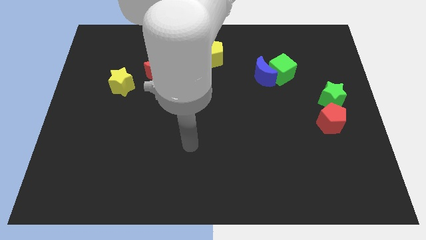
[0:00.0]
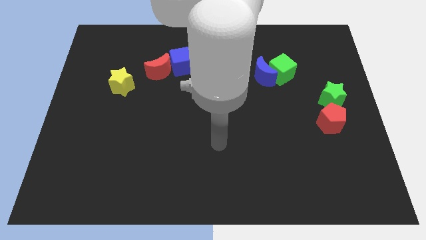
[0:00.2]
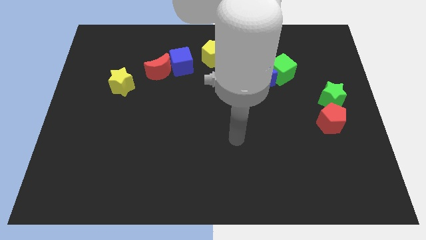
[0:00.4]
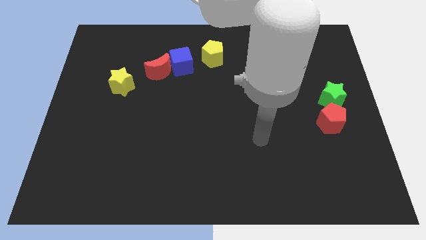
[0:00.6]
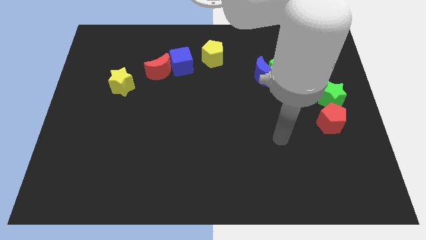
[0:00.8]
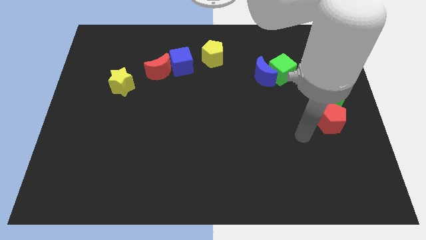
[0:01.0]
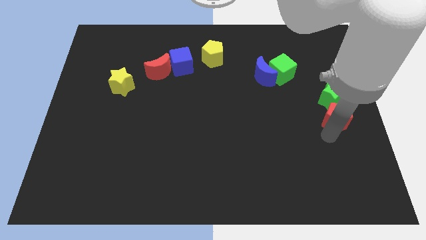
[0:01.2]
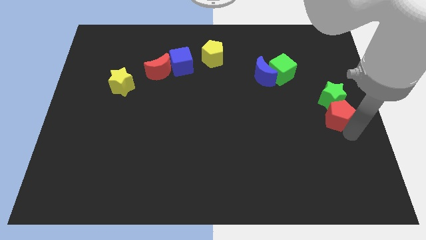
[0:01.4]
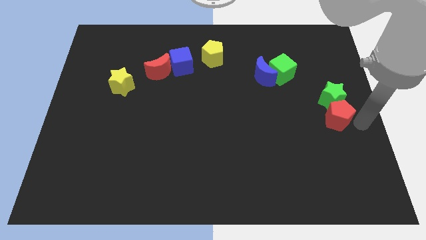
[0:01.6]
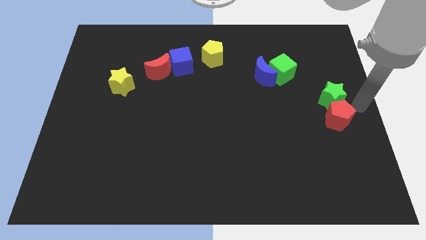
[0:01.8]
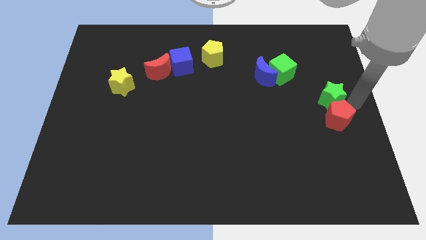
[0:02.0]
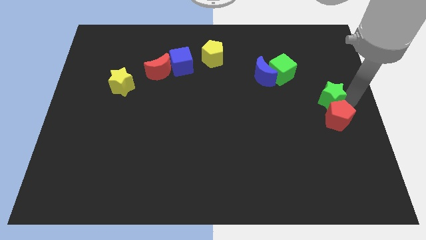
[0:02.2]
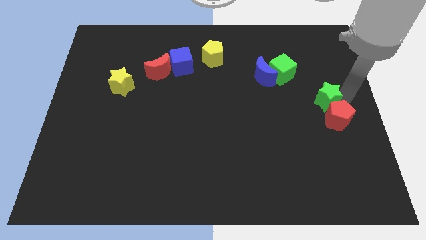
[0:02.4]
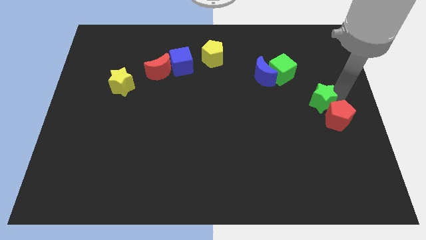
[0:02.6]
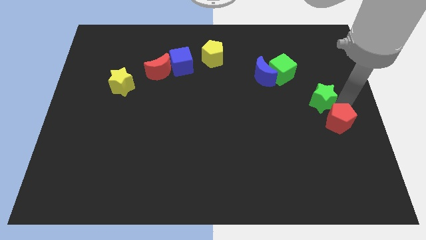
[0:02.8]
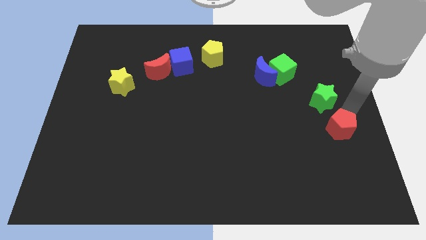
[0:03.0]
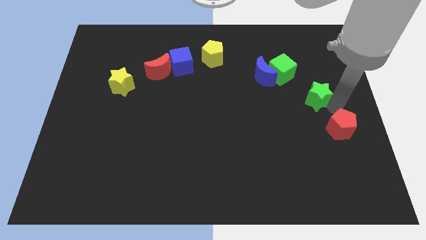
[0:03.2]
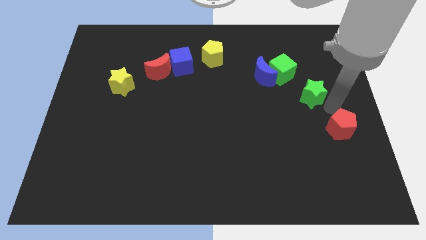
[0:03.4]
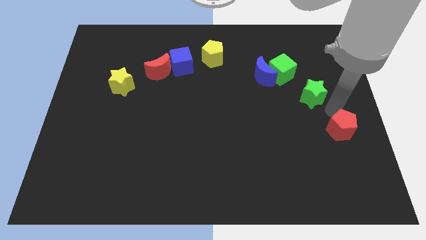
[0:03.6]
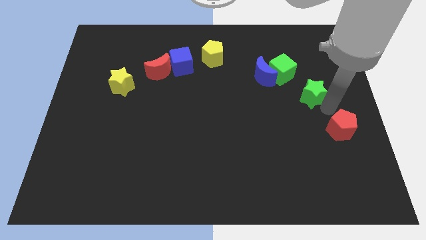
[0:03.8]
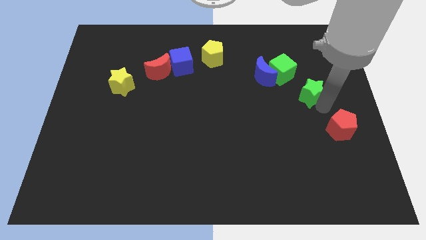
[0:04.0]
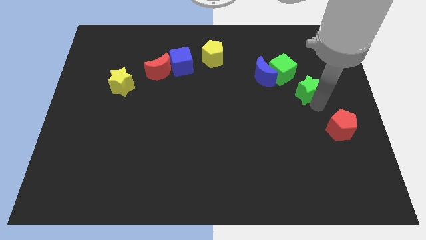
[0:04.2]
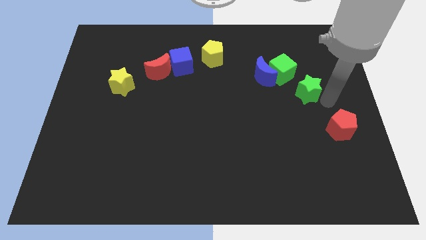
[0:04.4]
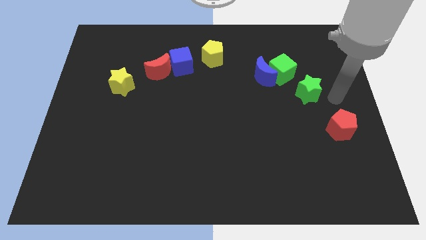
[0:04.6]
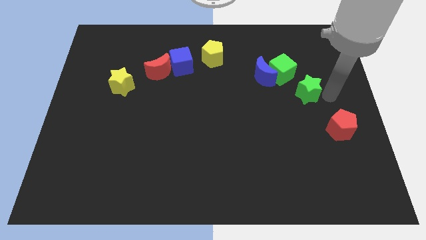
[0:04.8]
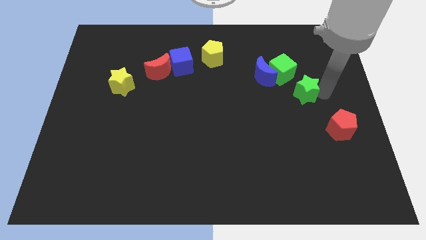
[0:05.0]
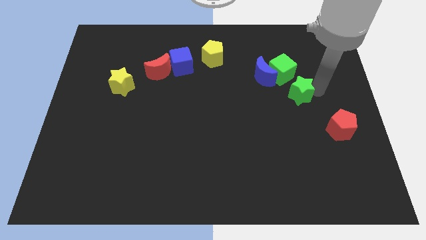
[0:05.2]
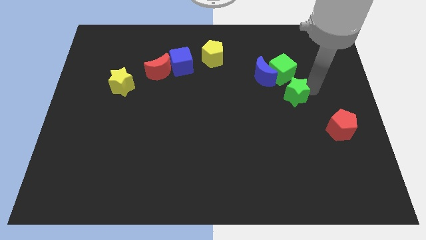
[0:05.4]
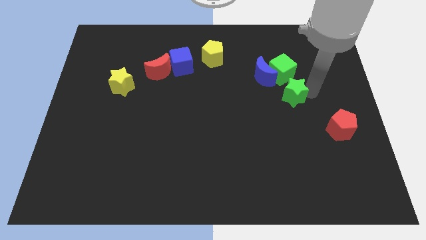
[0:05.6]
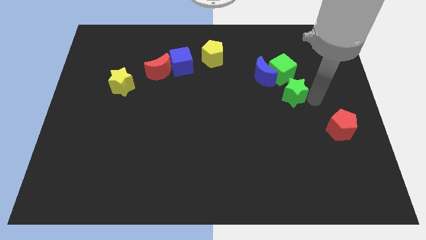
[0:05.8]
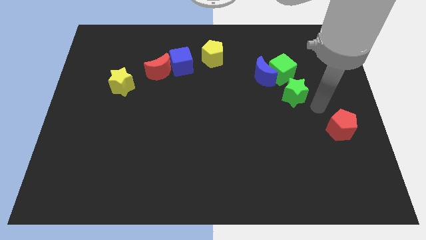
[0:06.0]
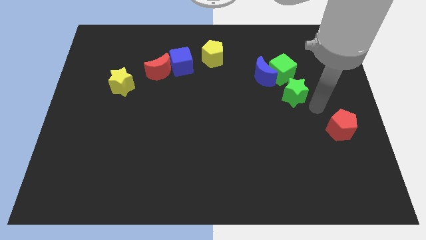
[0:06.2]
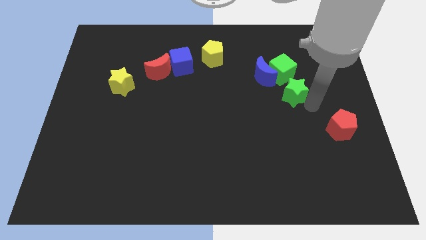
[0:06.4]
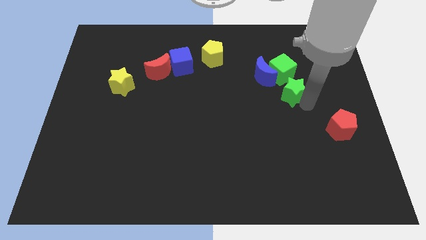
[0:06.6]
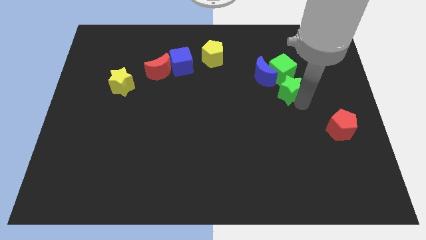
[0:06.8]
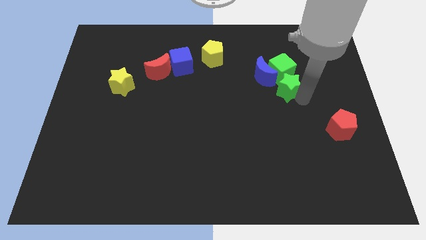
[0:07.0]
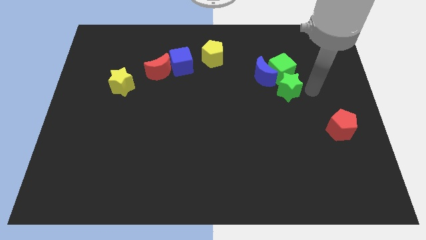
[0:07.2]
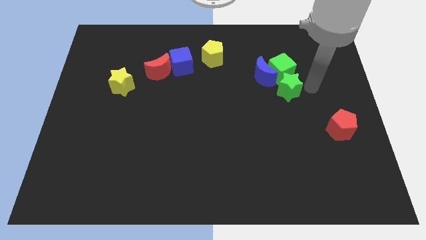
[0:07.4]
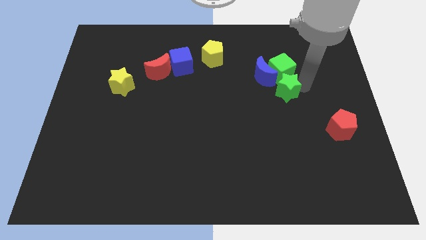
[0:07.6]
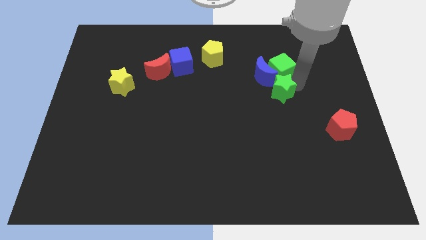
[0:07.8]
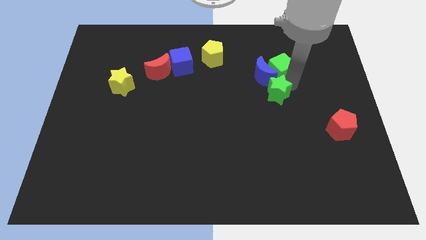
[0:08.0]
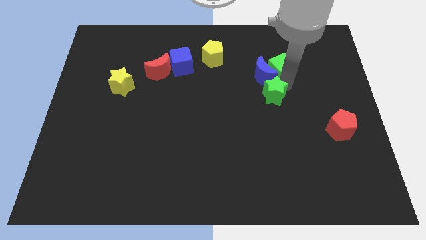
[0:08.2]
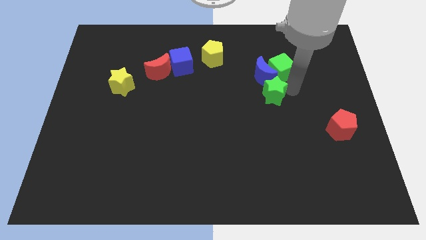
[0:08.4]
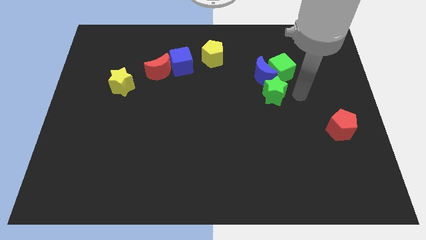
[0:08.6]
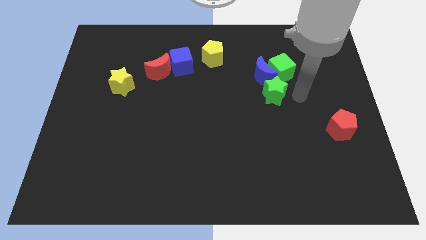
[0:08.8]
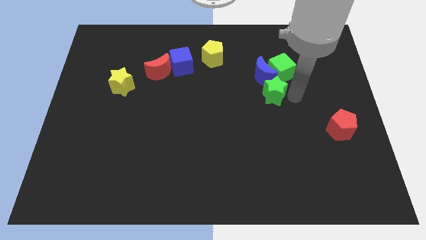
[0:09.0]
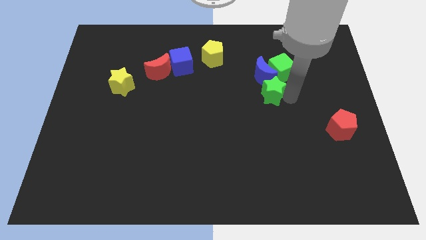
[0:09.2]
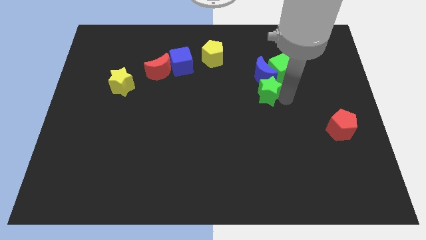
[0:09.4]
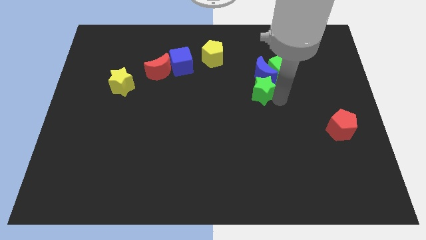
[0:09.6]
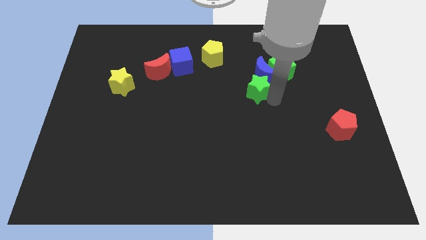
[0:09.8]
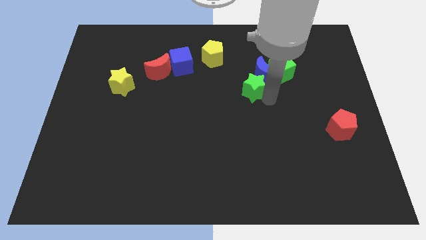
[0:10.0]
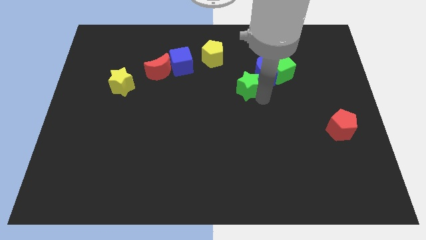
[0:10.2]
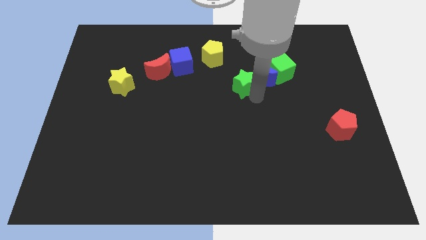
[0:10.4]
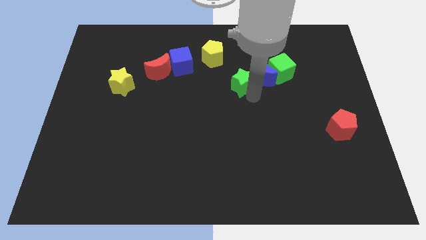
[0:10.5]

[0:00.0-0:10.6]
push the green star diagonally down and to the right of the yellow pentagon
